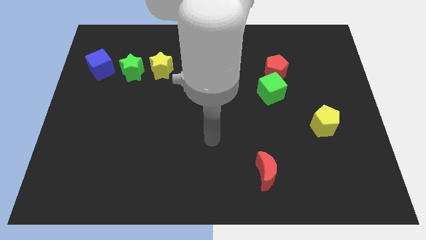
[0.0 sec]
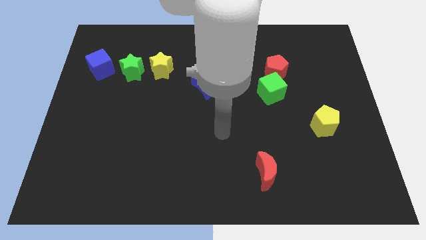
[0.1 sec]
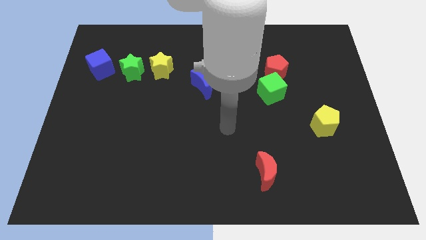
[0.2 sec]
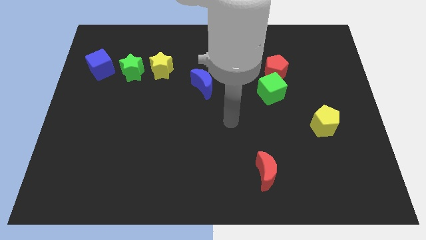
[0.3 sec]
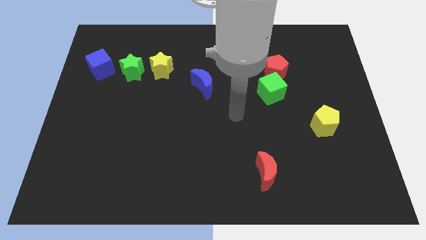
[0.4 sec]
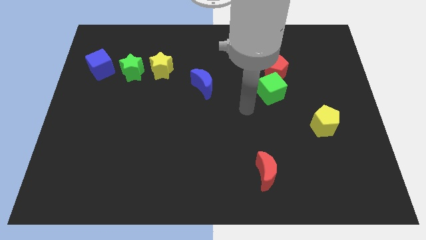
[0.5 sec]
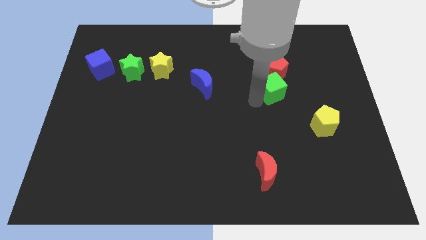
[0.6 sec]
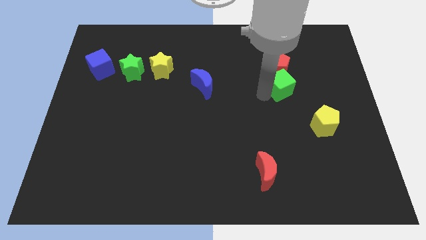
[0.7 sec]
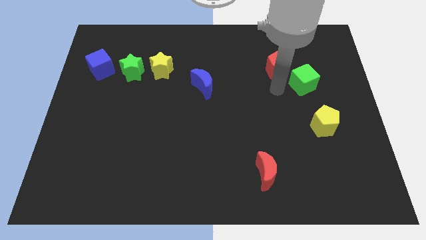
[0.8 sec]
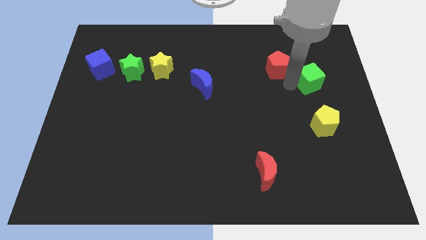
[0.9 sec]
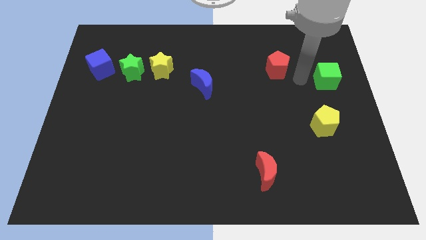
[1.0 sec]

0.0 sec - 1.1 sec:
pull the red pentagon apart from the green cube

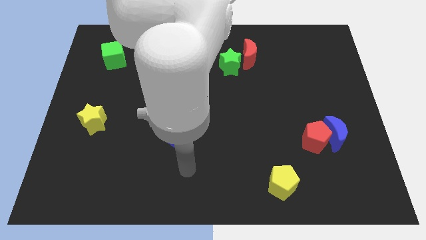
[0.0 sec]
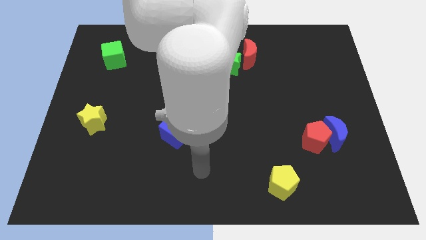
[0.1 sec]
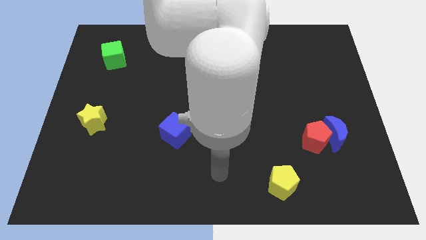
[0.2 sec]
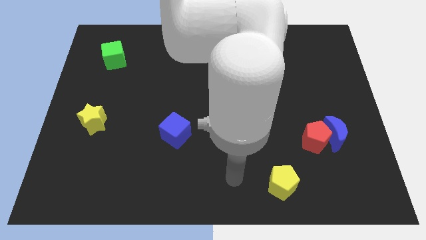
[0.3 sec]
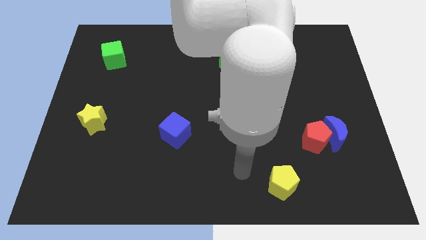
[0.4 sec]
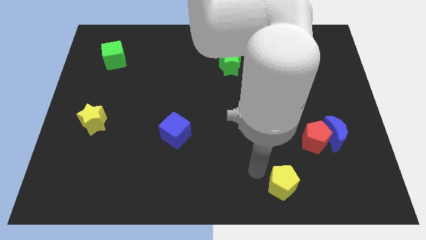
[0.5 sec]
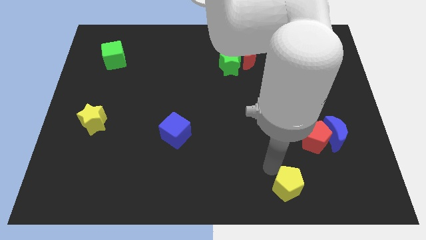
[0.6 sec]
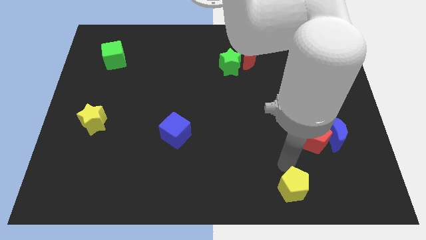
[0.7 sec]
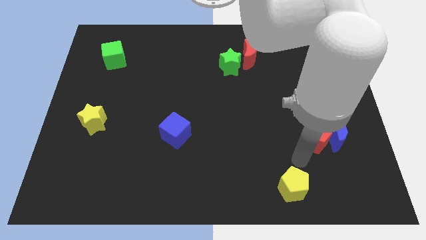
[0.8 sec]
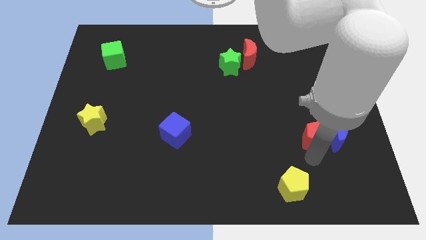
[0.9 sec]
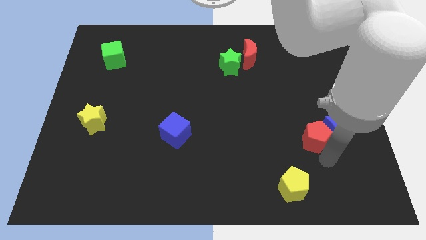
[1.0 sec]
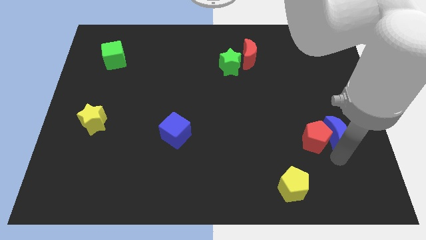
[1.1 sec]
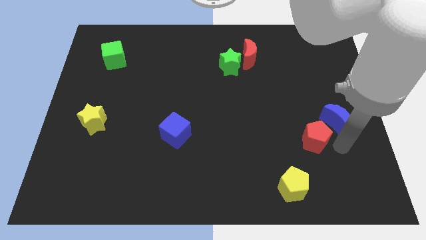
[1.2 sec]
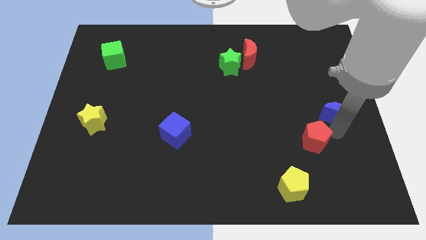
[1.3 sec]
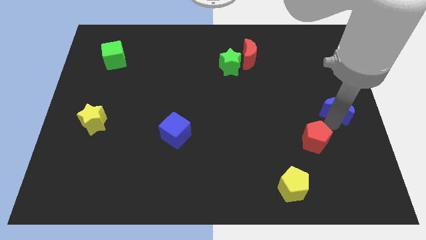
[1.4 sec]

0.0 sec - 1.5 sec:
move the red pentagon away from the blue moon

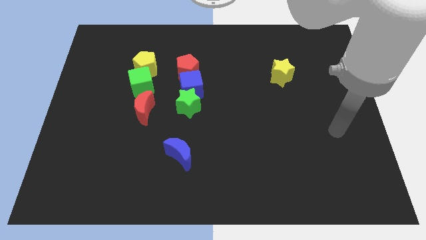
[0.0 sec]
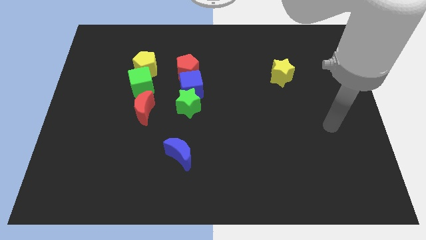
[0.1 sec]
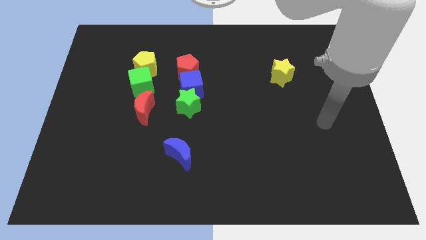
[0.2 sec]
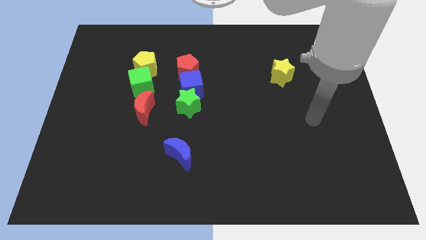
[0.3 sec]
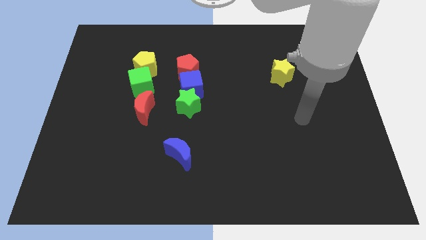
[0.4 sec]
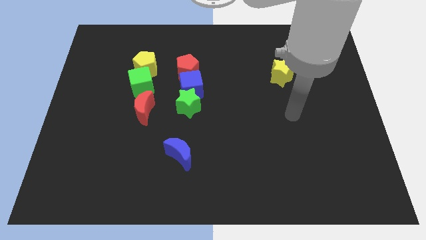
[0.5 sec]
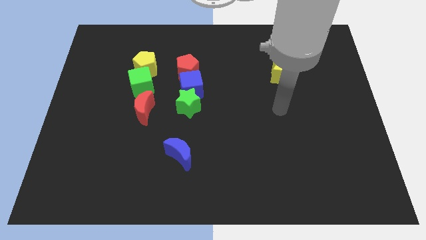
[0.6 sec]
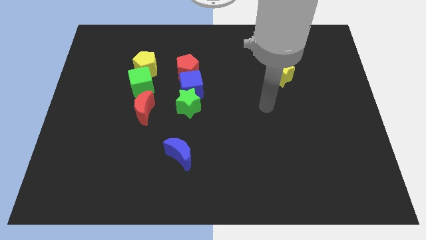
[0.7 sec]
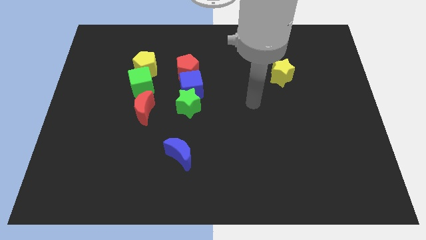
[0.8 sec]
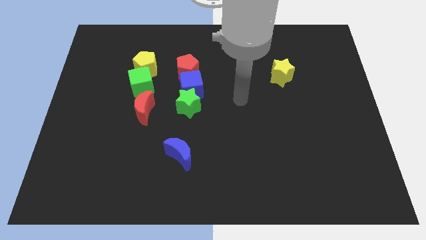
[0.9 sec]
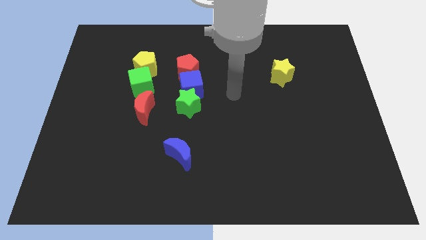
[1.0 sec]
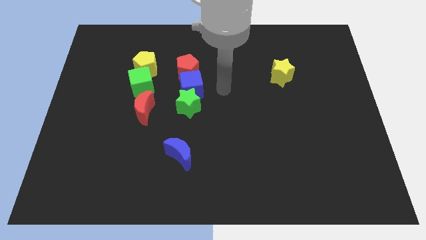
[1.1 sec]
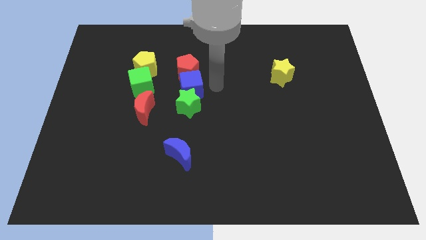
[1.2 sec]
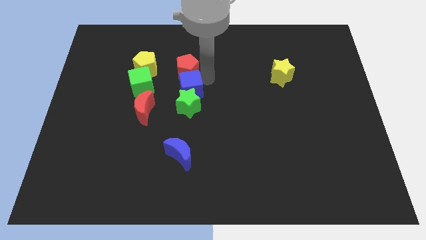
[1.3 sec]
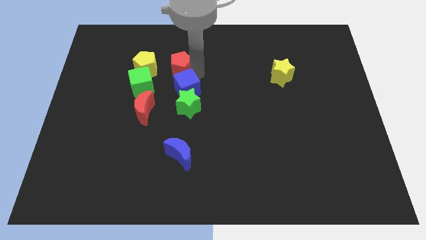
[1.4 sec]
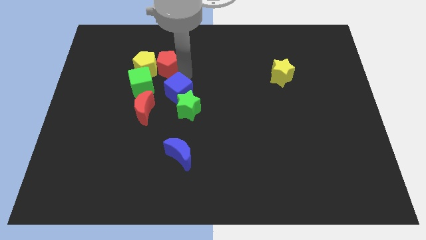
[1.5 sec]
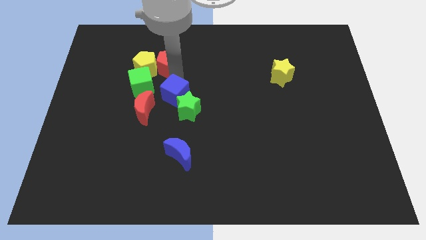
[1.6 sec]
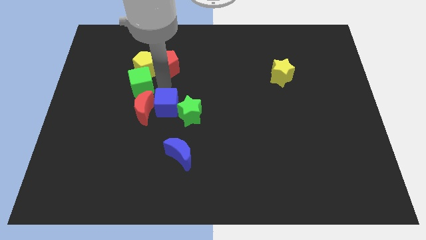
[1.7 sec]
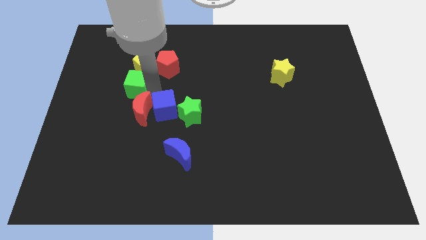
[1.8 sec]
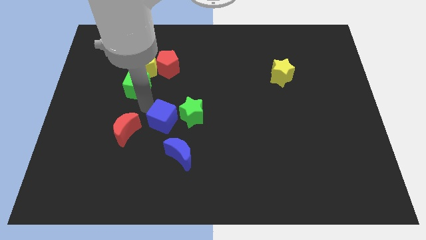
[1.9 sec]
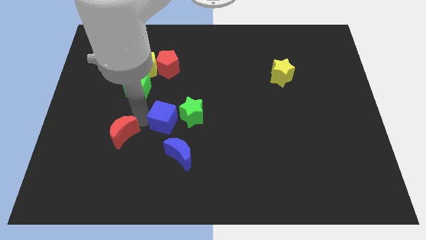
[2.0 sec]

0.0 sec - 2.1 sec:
separate the blue cube from the green star and red pentagon

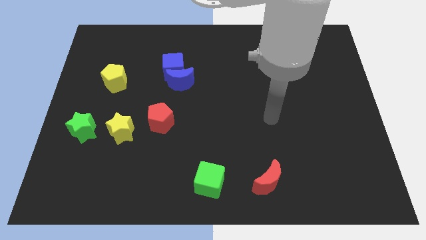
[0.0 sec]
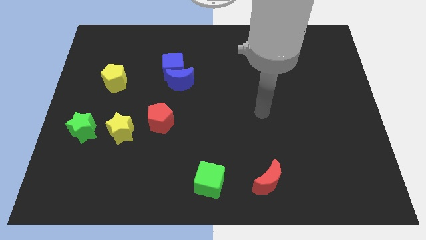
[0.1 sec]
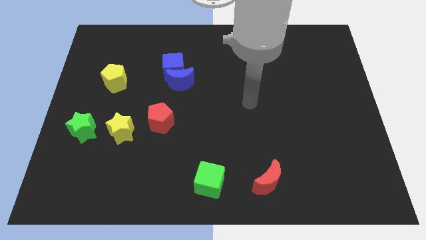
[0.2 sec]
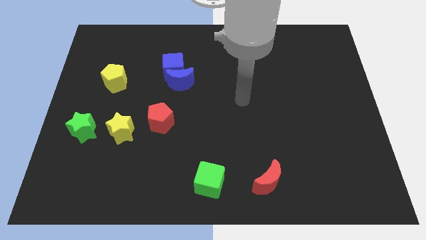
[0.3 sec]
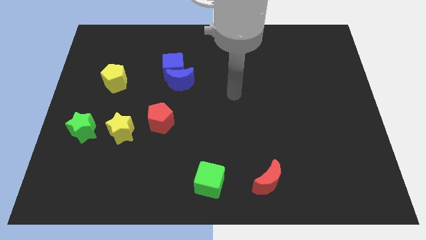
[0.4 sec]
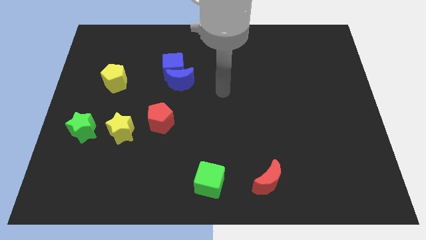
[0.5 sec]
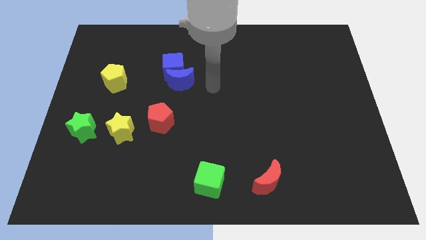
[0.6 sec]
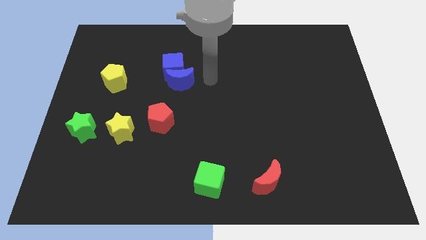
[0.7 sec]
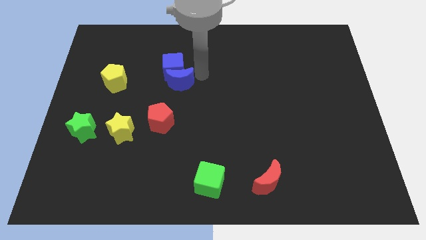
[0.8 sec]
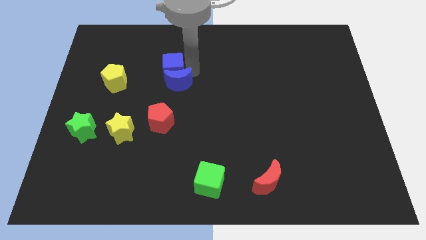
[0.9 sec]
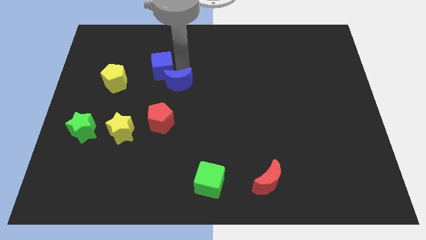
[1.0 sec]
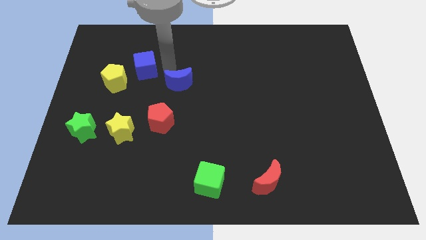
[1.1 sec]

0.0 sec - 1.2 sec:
pull the blue moon apart from the blue cube

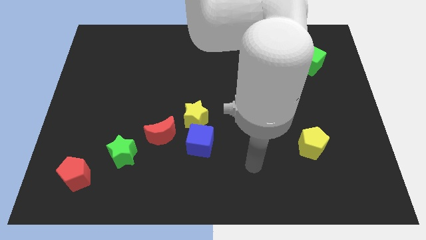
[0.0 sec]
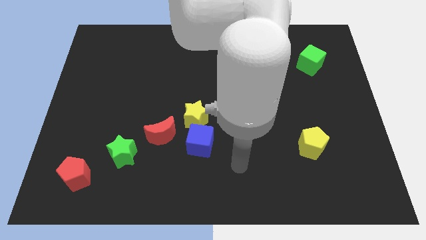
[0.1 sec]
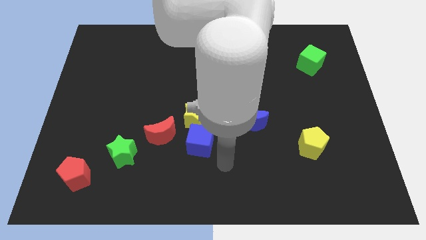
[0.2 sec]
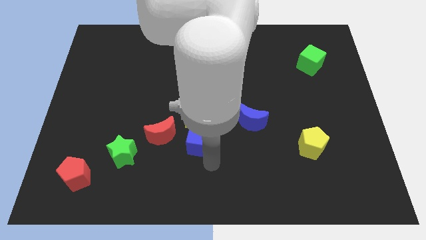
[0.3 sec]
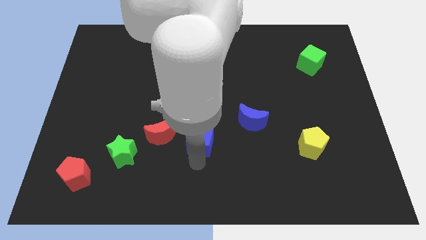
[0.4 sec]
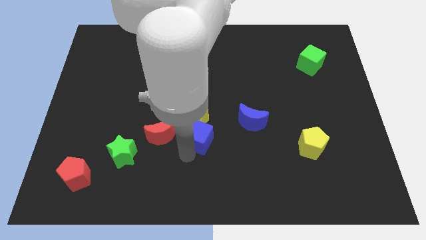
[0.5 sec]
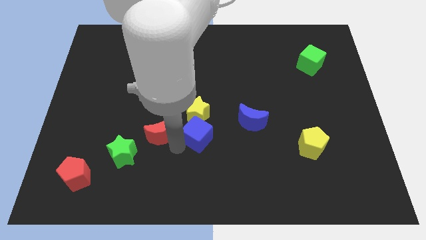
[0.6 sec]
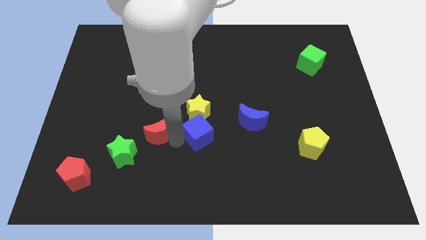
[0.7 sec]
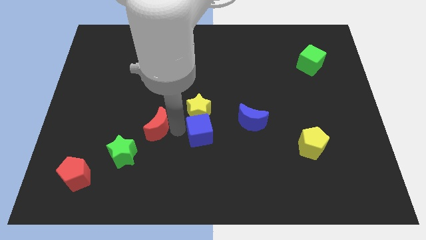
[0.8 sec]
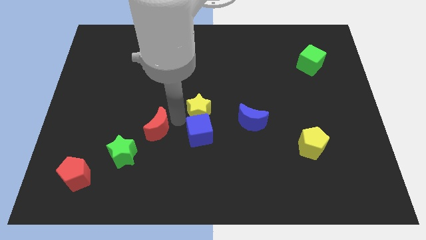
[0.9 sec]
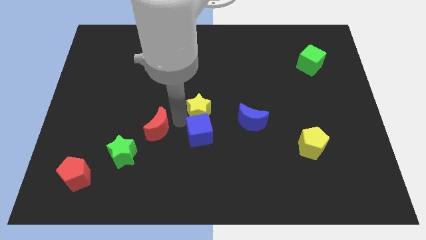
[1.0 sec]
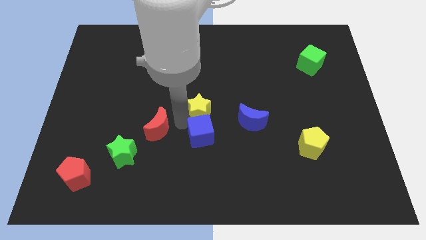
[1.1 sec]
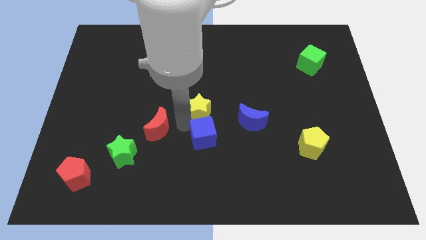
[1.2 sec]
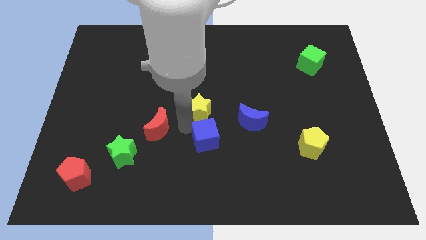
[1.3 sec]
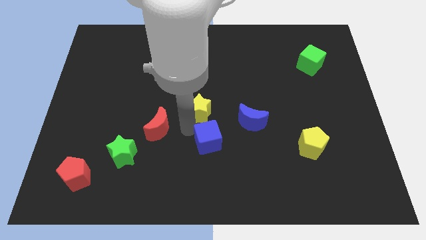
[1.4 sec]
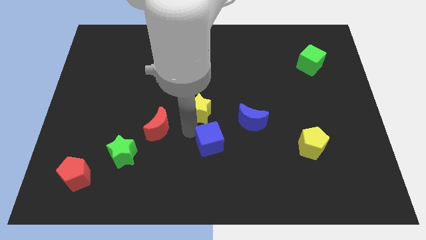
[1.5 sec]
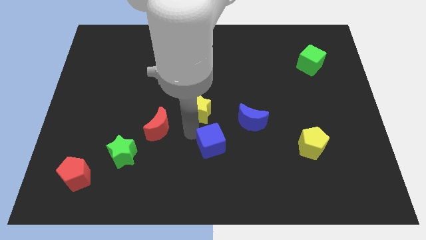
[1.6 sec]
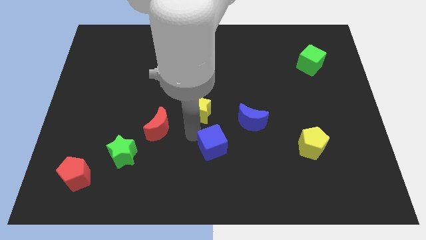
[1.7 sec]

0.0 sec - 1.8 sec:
separate the blue cube from the yellow star and red moon

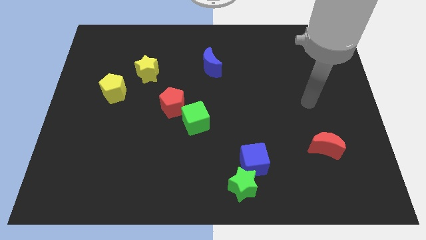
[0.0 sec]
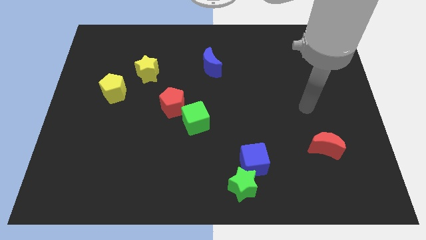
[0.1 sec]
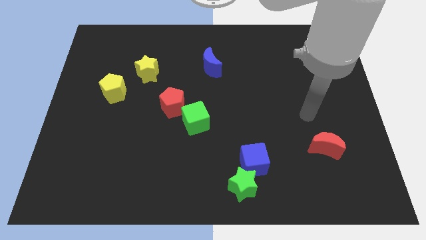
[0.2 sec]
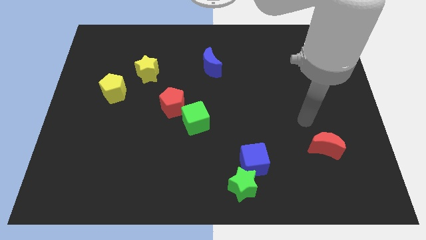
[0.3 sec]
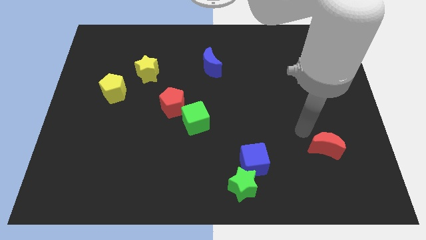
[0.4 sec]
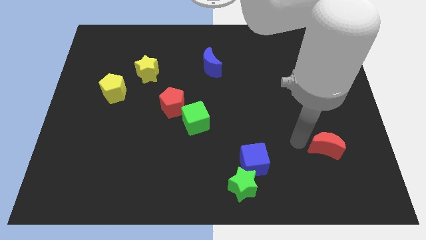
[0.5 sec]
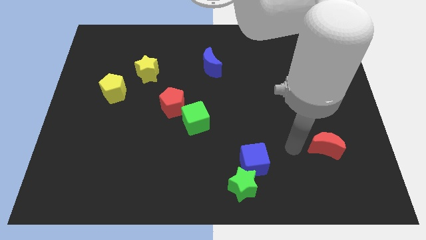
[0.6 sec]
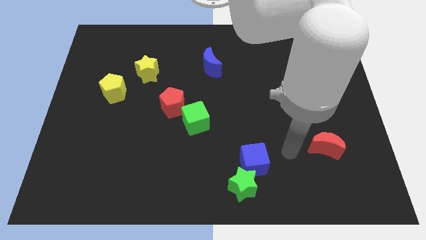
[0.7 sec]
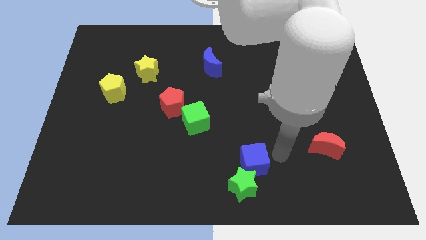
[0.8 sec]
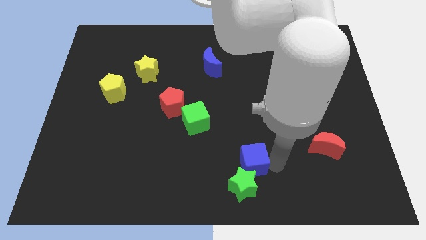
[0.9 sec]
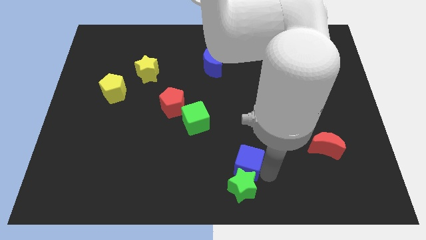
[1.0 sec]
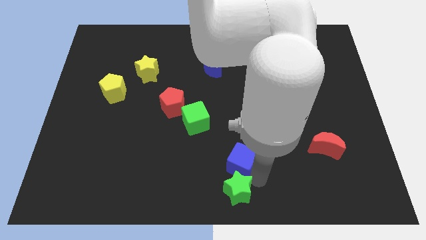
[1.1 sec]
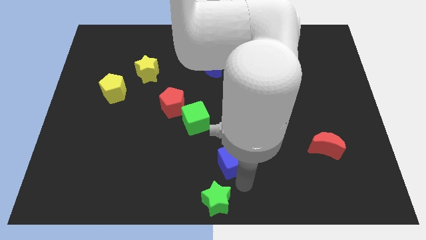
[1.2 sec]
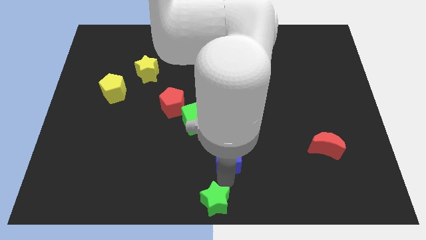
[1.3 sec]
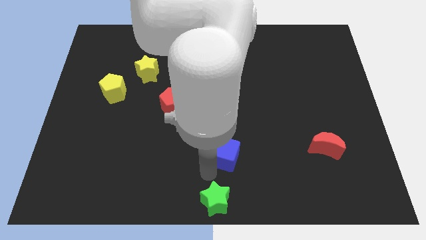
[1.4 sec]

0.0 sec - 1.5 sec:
move the blue cube away from the green star
